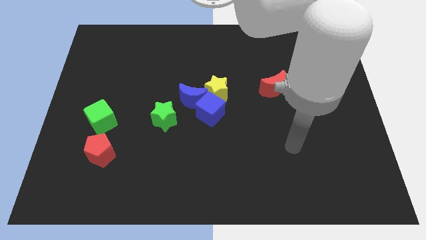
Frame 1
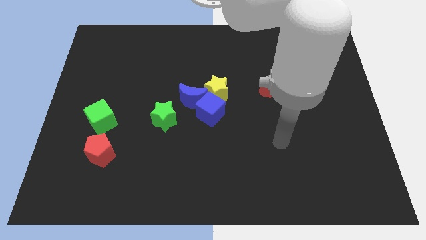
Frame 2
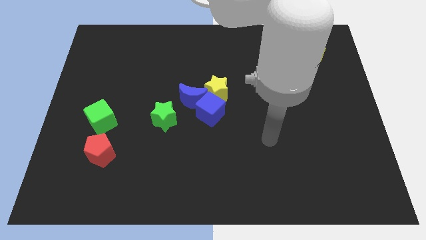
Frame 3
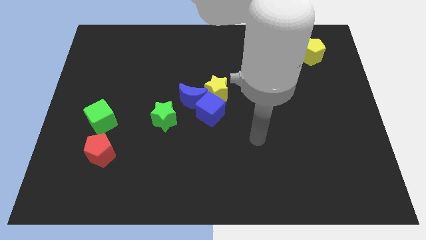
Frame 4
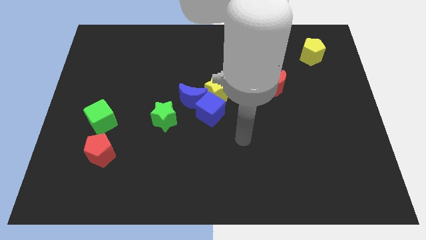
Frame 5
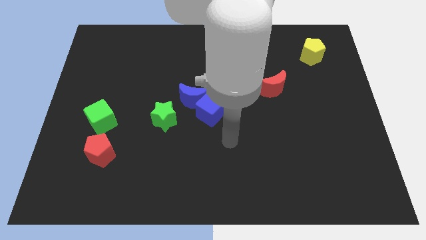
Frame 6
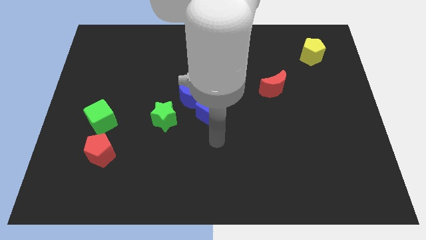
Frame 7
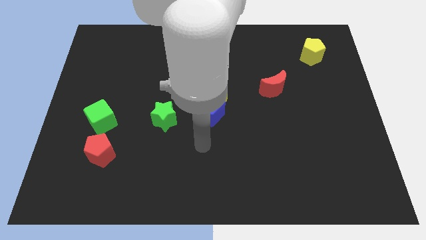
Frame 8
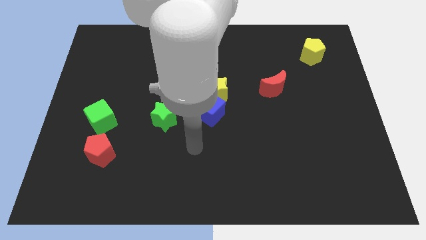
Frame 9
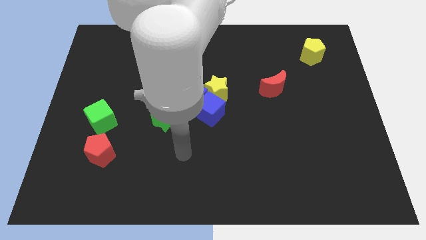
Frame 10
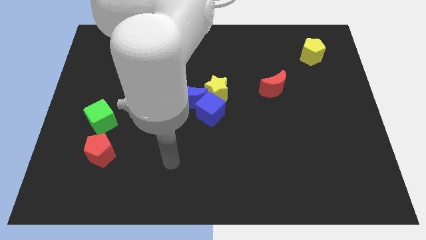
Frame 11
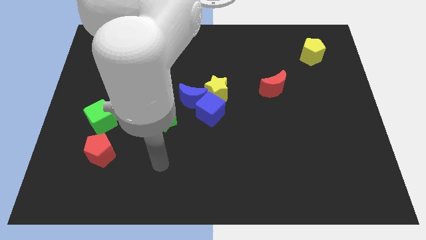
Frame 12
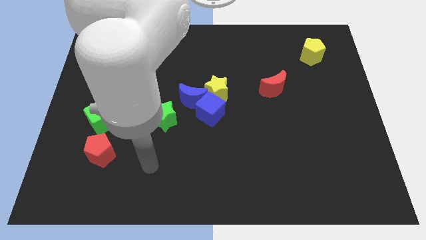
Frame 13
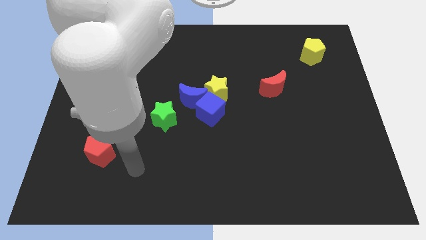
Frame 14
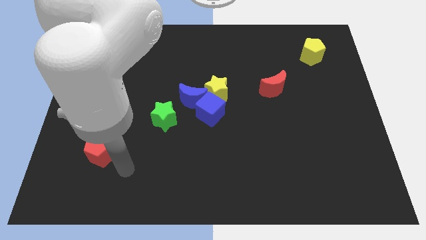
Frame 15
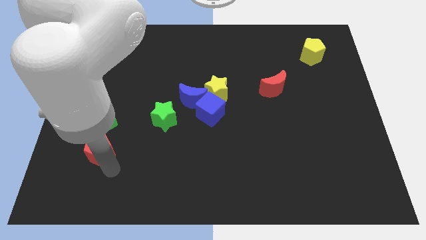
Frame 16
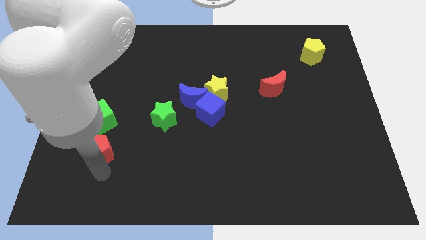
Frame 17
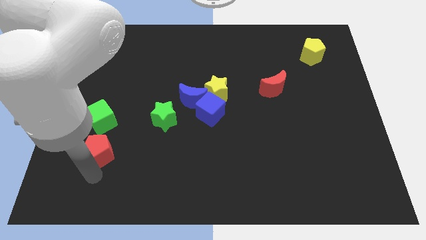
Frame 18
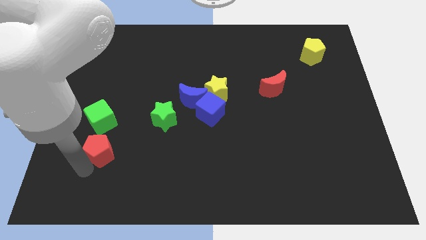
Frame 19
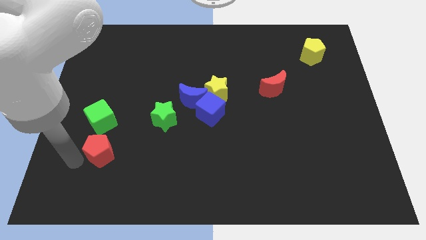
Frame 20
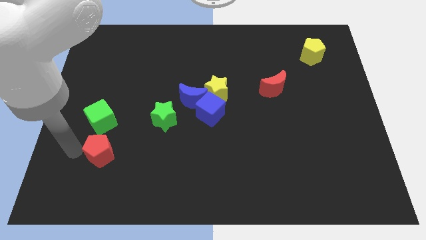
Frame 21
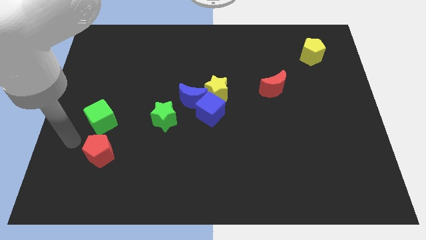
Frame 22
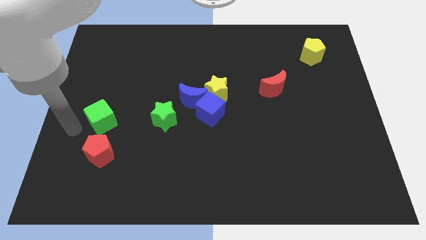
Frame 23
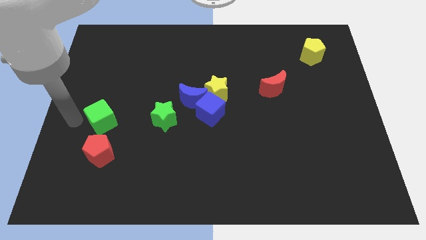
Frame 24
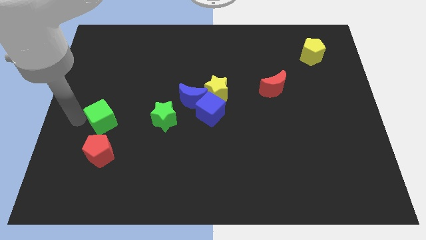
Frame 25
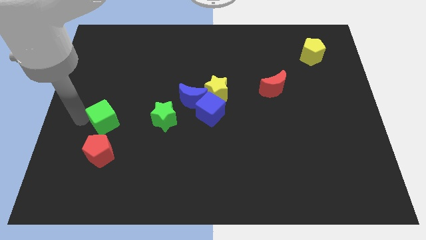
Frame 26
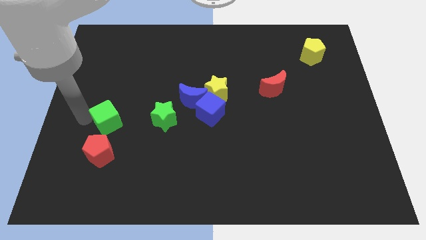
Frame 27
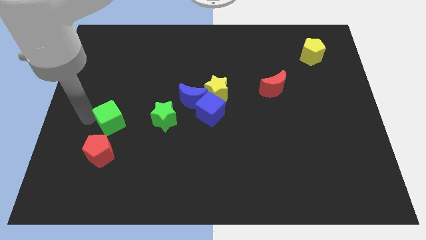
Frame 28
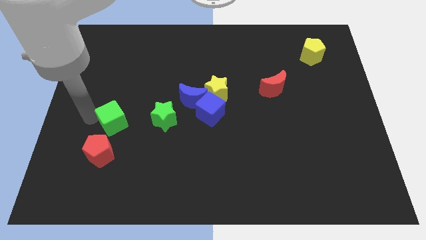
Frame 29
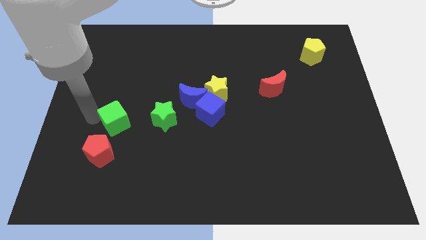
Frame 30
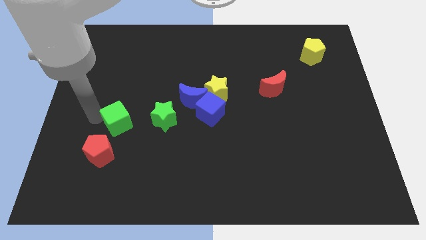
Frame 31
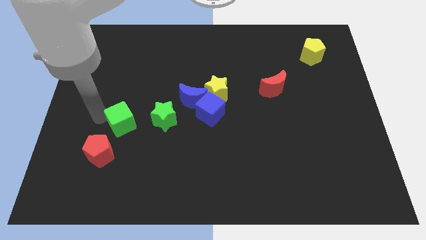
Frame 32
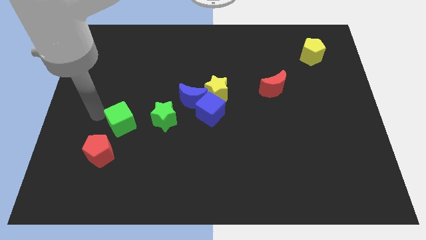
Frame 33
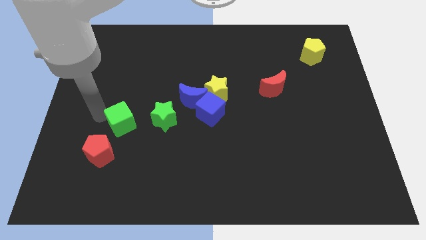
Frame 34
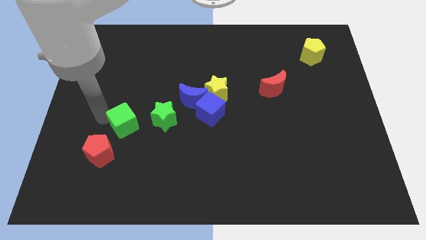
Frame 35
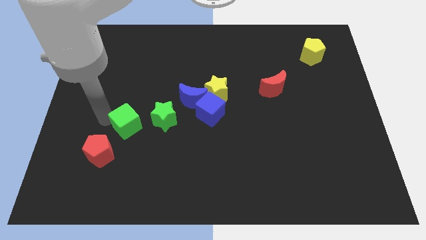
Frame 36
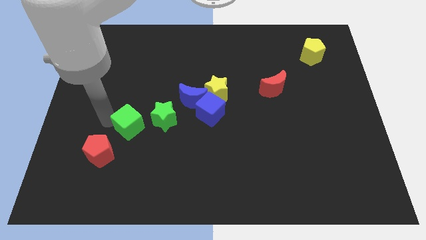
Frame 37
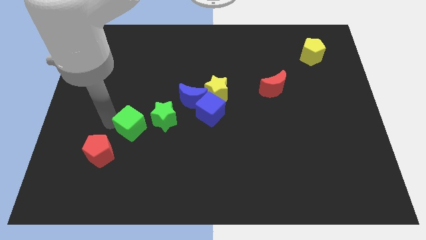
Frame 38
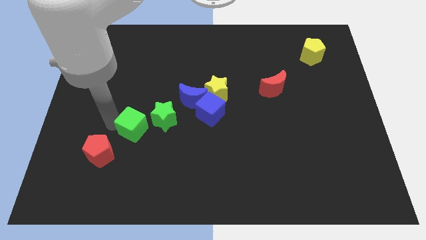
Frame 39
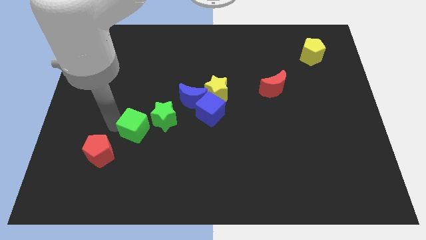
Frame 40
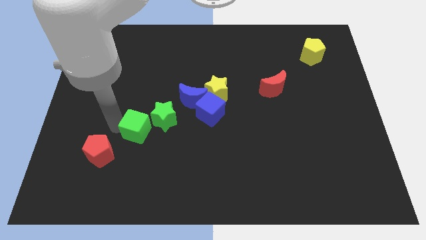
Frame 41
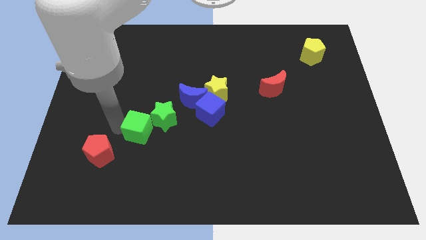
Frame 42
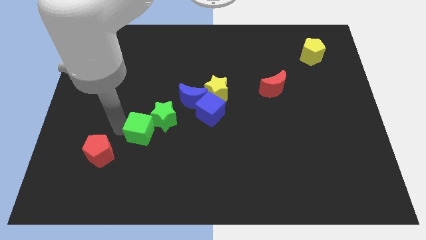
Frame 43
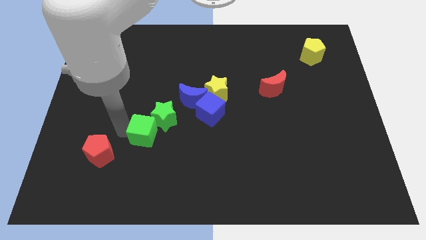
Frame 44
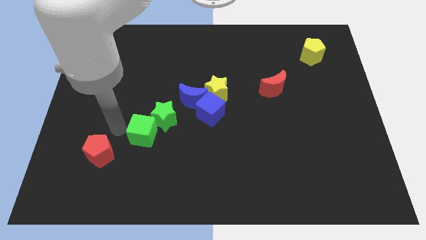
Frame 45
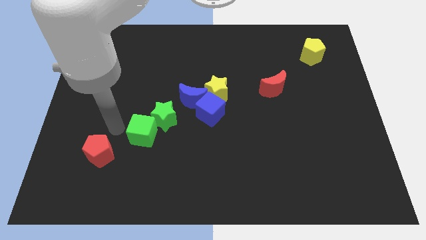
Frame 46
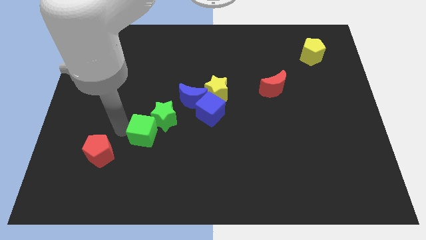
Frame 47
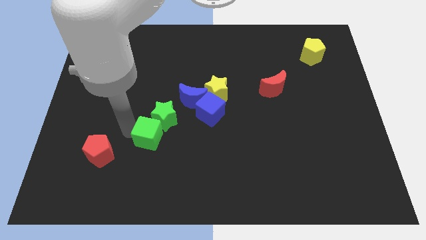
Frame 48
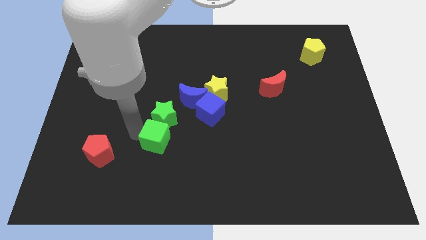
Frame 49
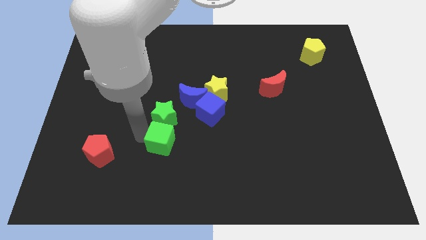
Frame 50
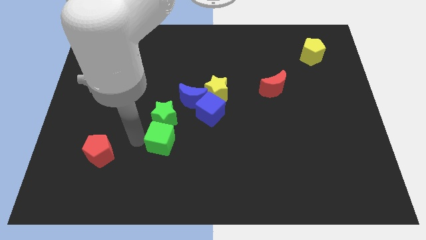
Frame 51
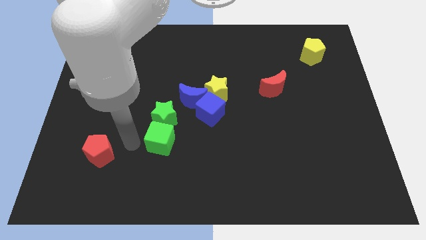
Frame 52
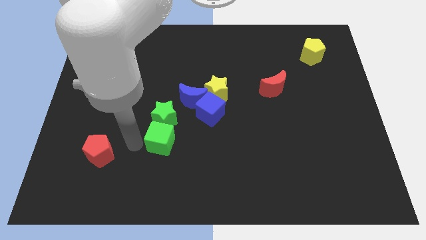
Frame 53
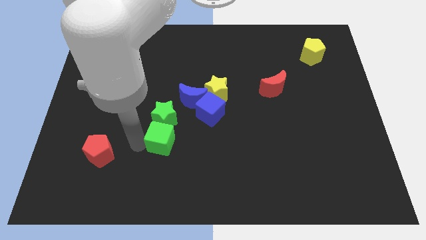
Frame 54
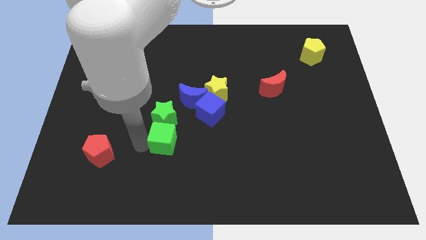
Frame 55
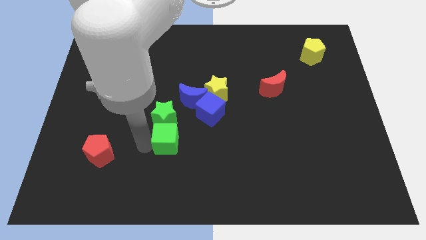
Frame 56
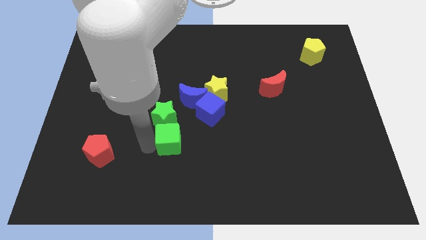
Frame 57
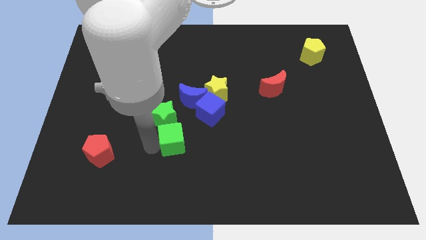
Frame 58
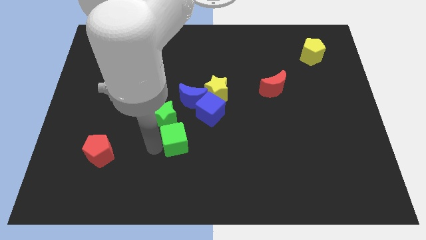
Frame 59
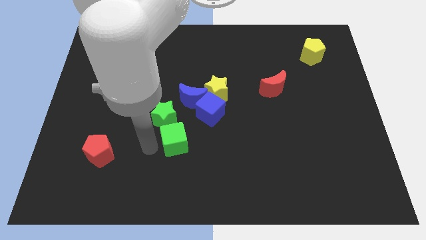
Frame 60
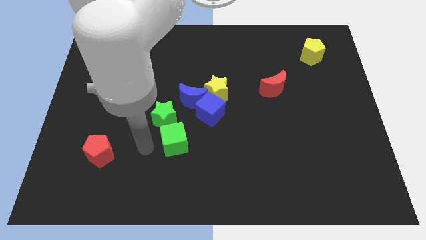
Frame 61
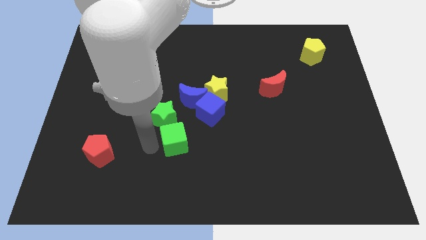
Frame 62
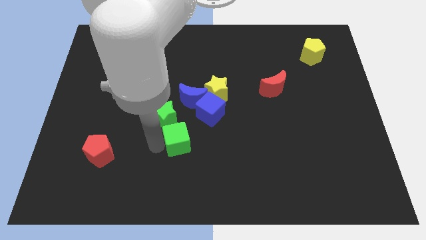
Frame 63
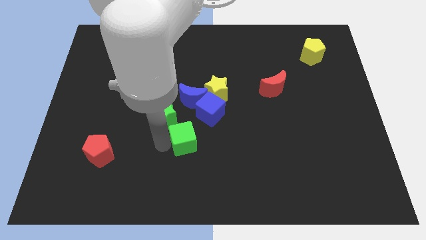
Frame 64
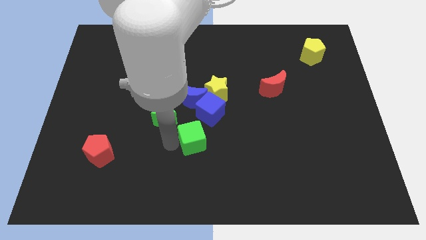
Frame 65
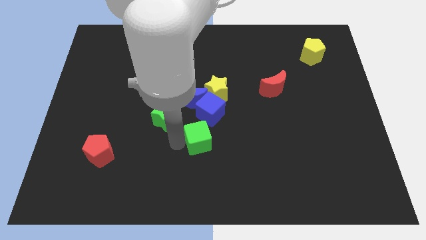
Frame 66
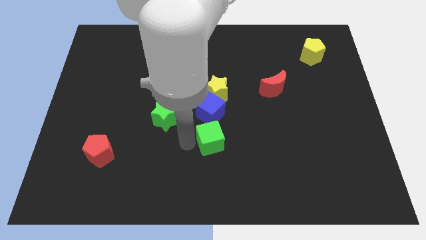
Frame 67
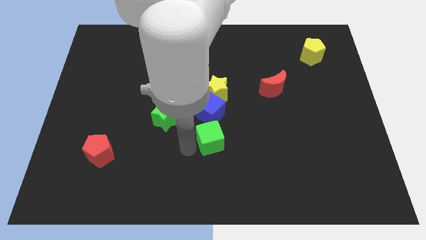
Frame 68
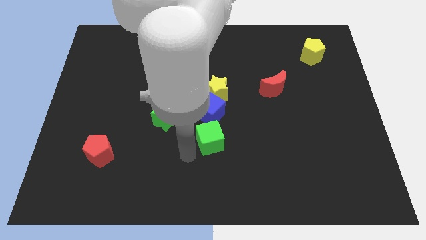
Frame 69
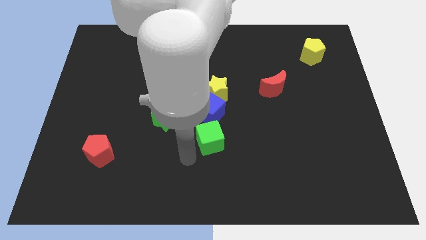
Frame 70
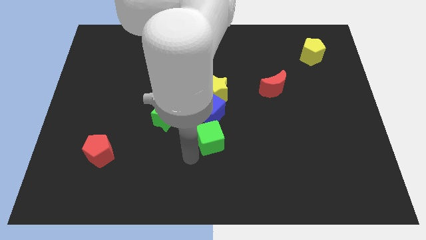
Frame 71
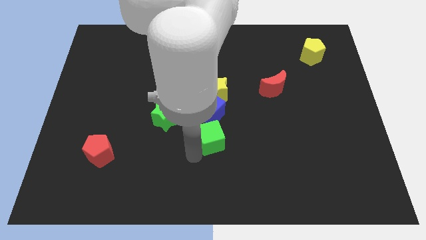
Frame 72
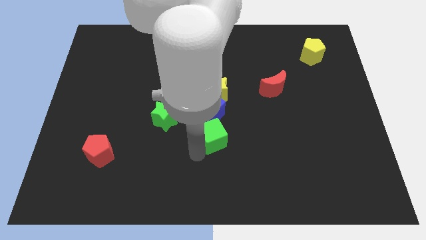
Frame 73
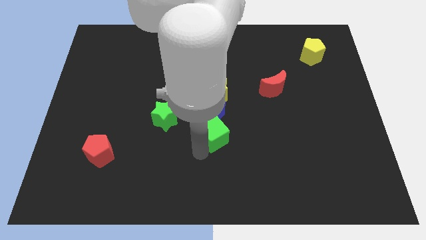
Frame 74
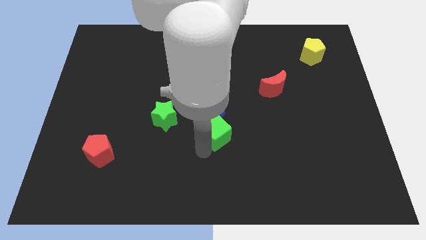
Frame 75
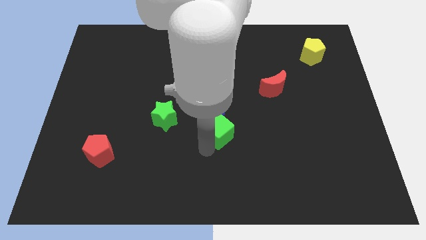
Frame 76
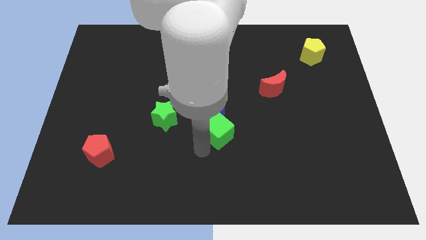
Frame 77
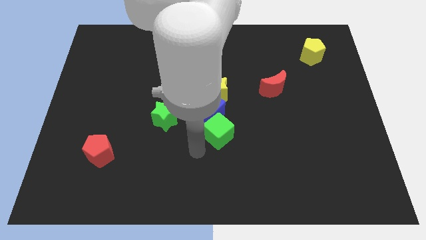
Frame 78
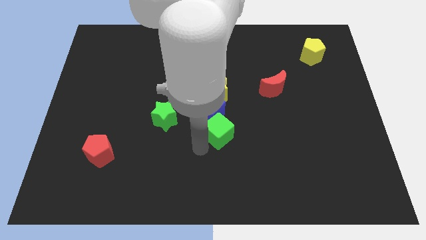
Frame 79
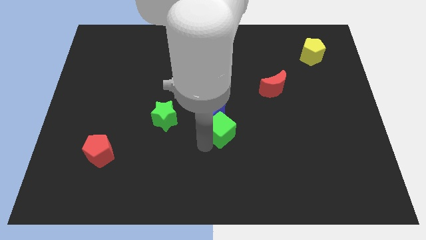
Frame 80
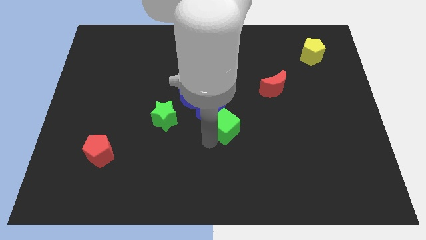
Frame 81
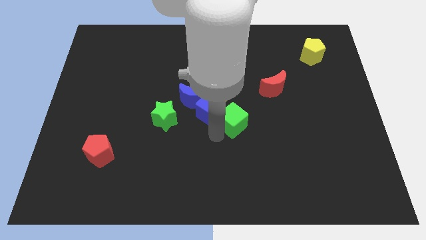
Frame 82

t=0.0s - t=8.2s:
slide the green cube to the right side of the blue cube

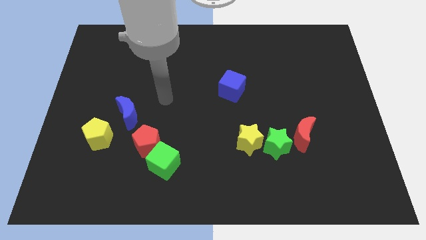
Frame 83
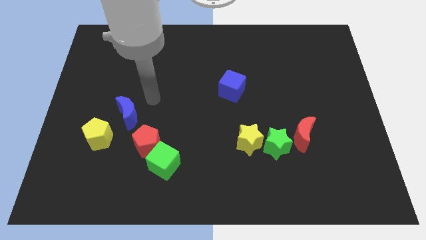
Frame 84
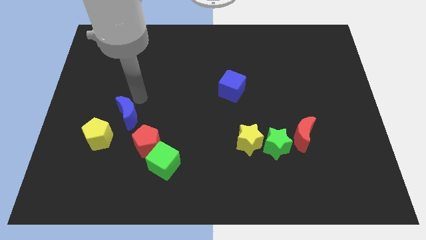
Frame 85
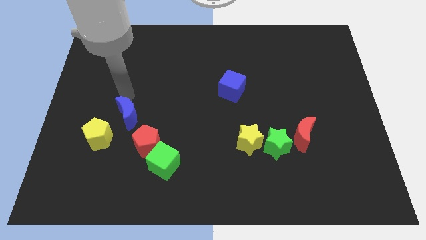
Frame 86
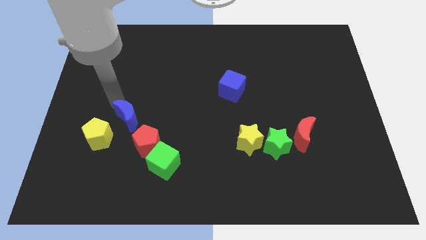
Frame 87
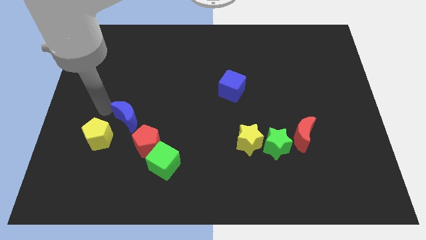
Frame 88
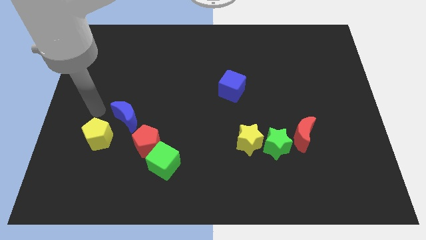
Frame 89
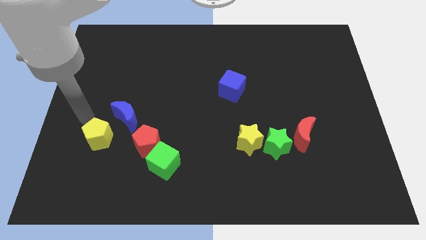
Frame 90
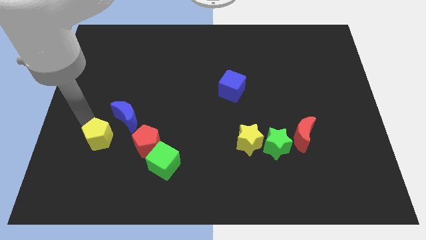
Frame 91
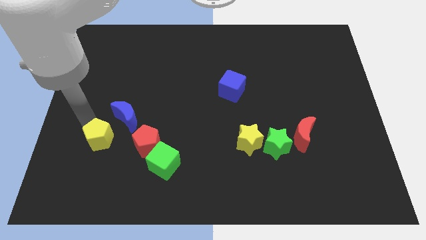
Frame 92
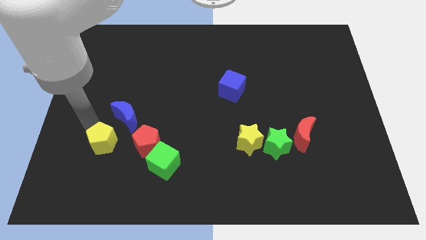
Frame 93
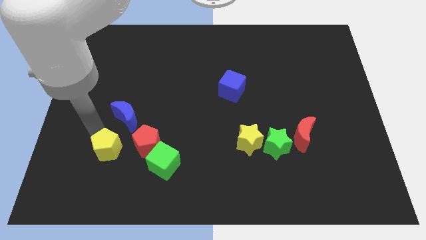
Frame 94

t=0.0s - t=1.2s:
push the yellow pentagon left of the green cube
